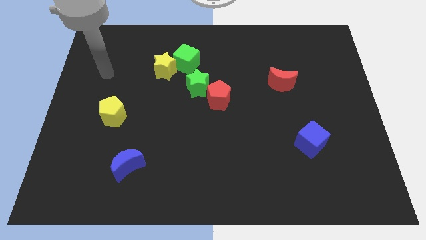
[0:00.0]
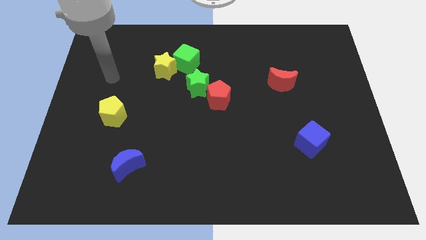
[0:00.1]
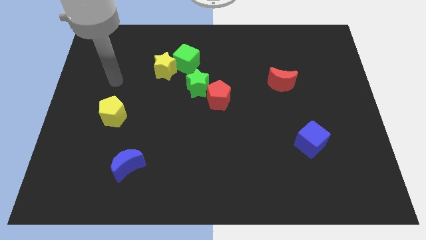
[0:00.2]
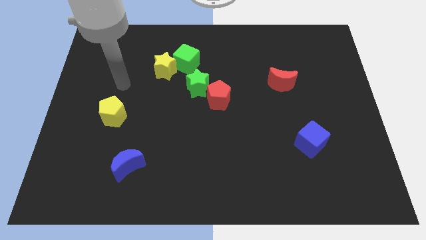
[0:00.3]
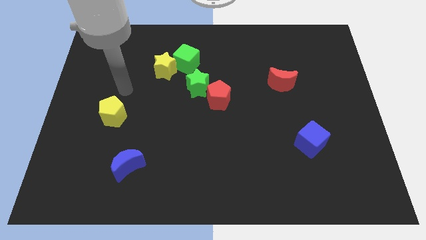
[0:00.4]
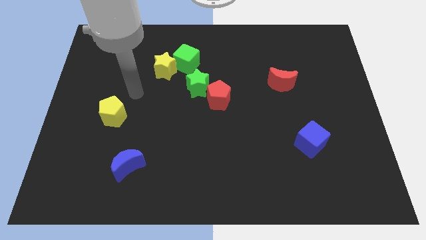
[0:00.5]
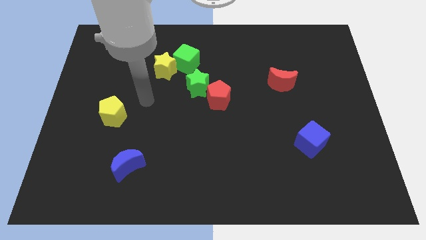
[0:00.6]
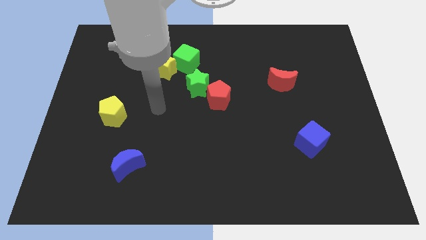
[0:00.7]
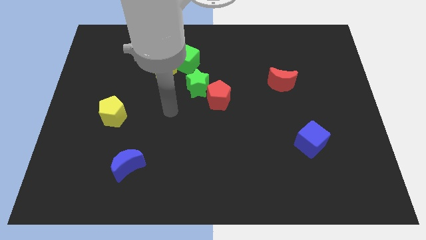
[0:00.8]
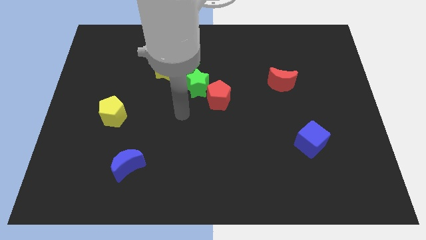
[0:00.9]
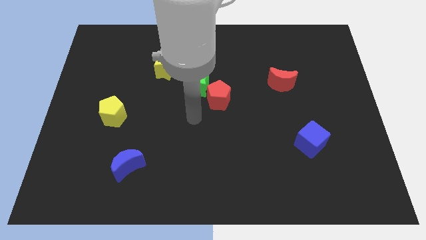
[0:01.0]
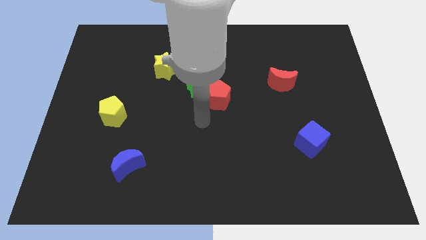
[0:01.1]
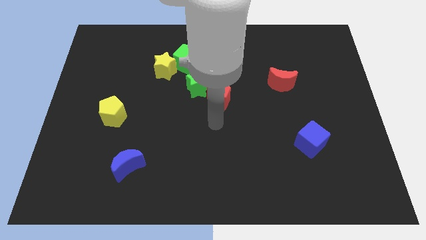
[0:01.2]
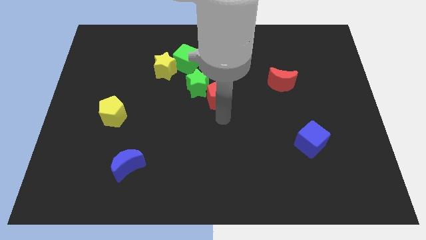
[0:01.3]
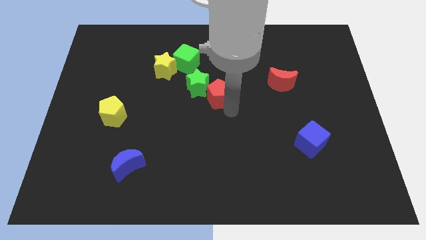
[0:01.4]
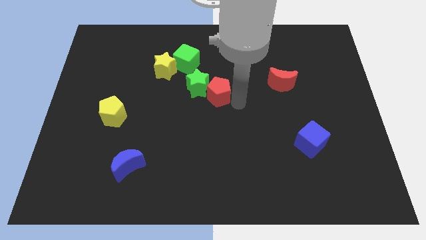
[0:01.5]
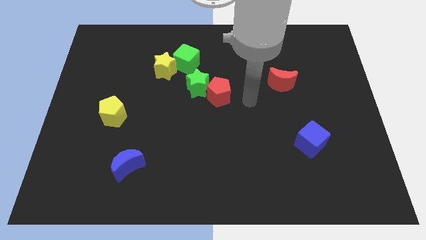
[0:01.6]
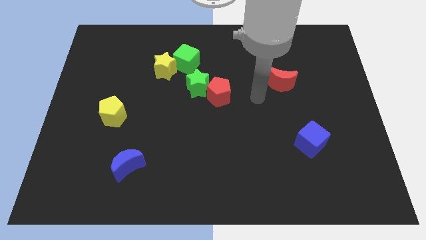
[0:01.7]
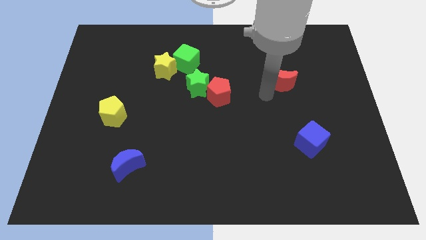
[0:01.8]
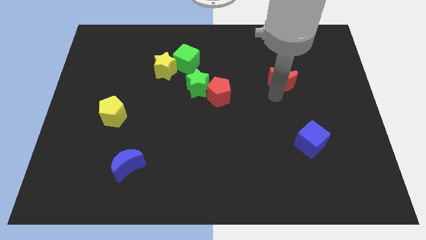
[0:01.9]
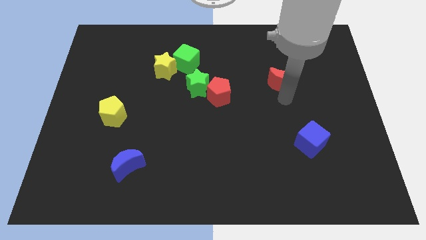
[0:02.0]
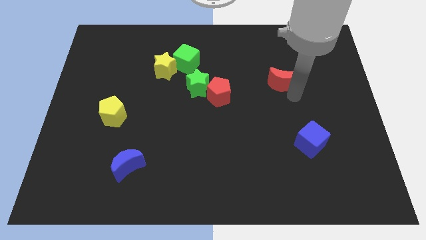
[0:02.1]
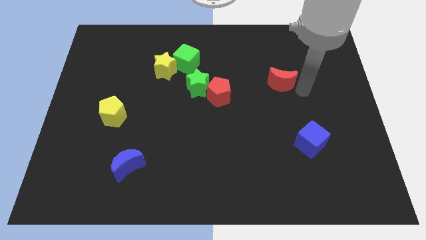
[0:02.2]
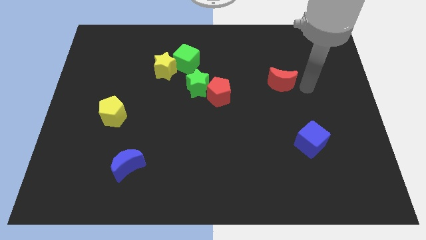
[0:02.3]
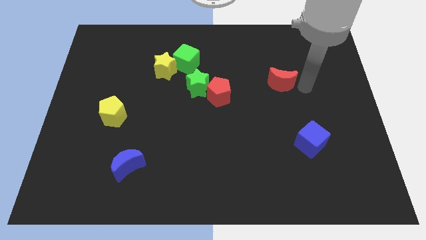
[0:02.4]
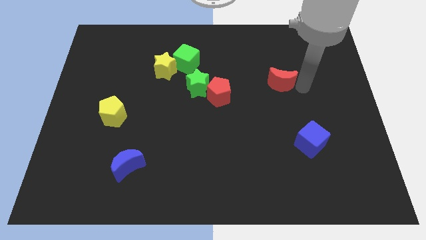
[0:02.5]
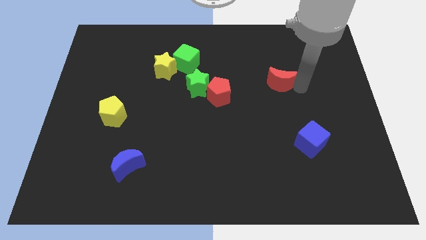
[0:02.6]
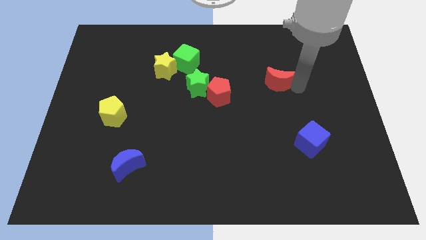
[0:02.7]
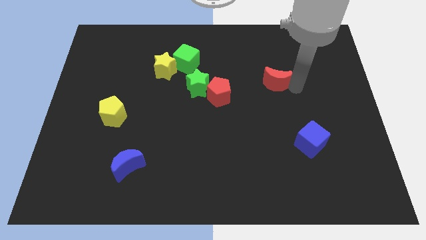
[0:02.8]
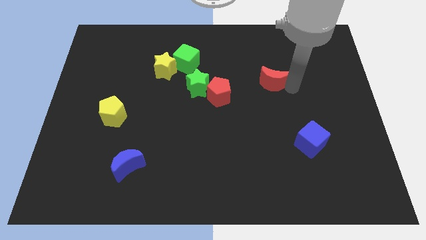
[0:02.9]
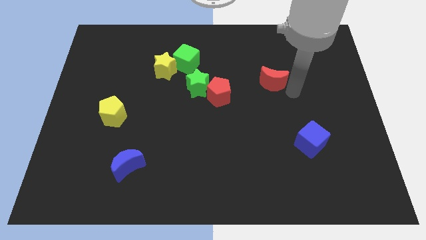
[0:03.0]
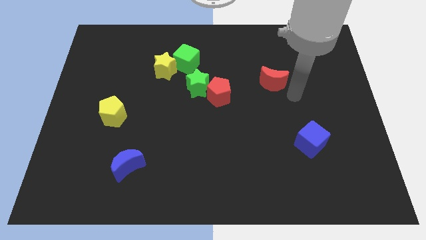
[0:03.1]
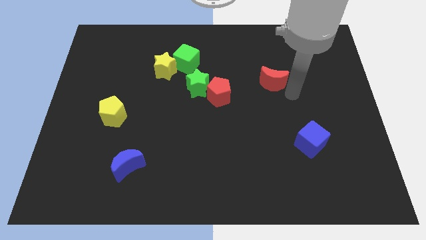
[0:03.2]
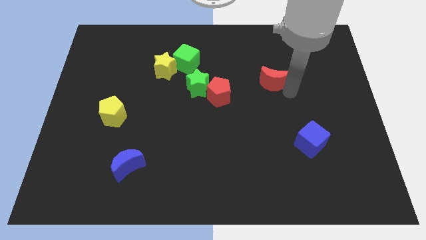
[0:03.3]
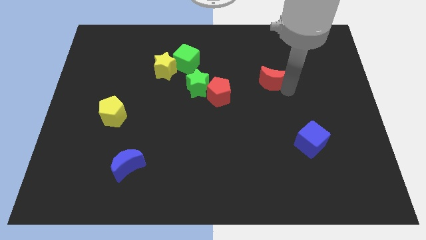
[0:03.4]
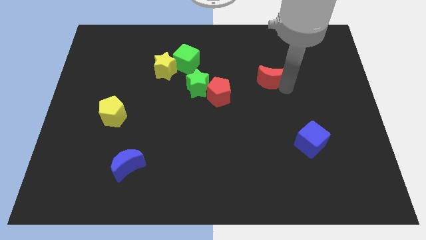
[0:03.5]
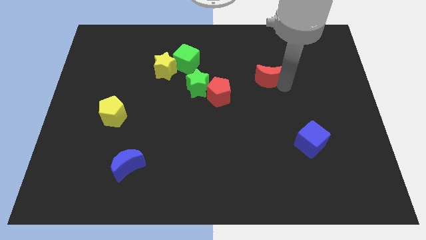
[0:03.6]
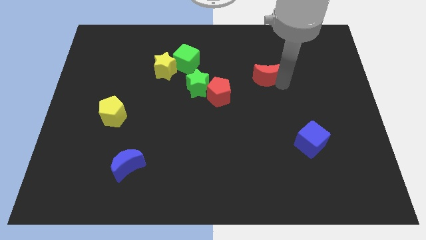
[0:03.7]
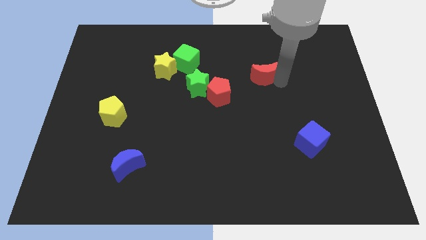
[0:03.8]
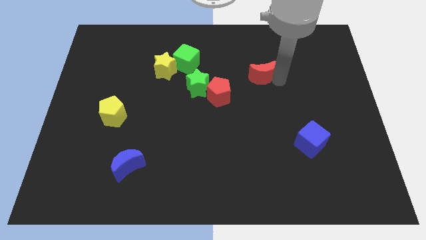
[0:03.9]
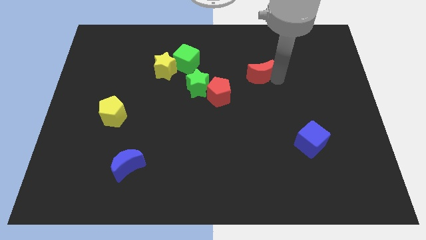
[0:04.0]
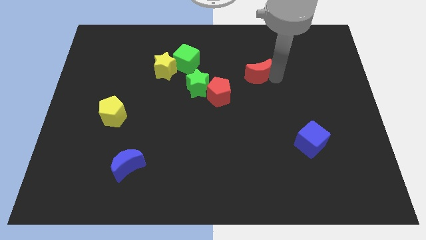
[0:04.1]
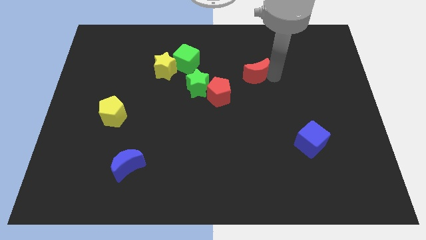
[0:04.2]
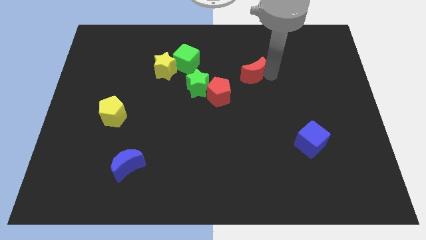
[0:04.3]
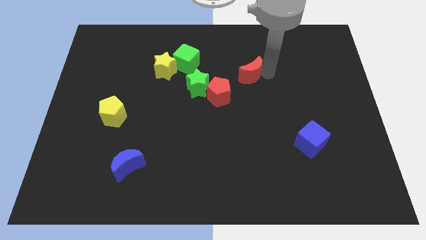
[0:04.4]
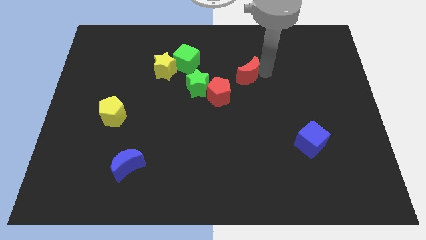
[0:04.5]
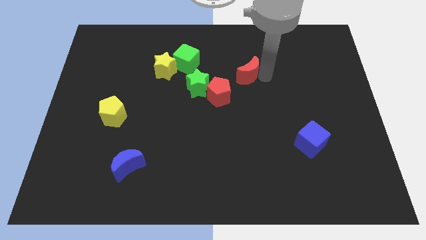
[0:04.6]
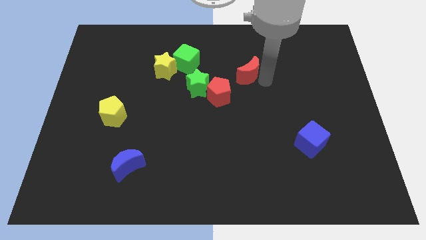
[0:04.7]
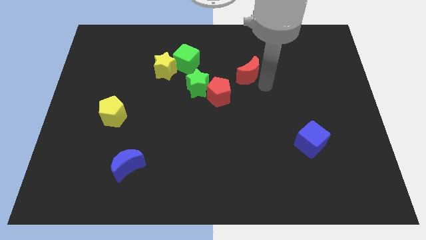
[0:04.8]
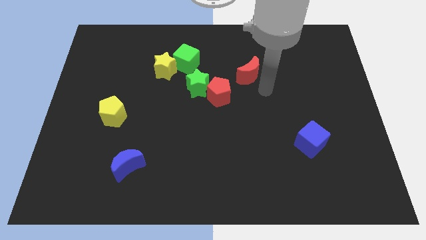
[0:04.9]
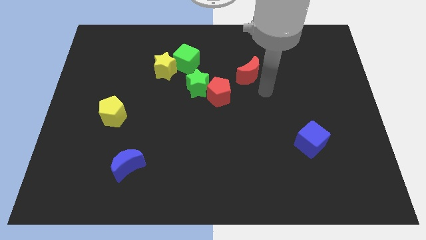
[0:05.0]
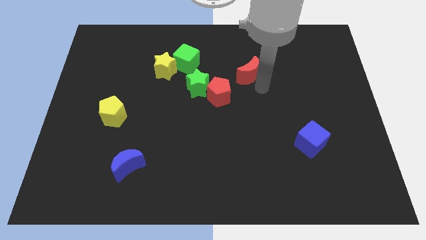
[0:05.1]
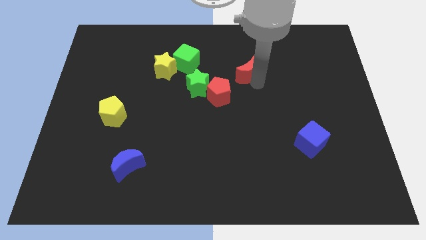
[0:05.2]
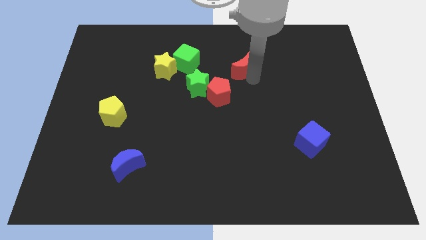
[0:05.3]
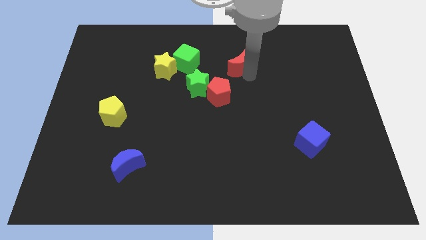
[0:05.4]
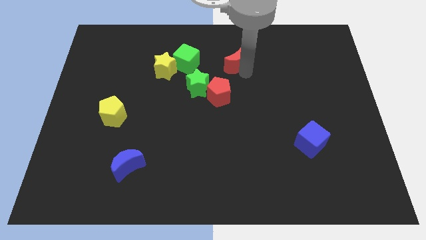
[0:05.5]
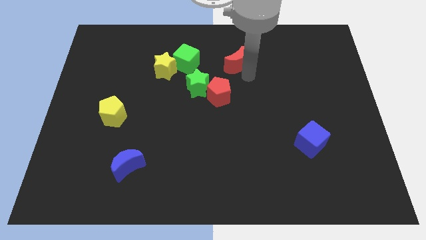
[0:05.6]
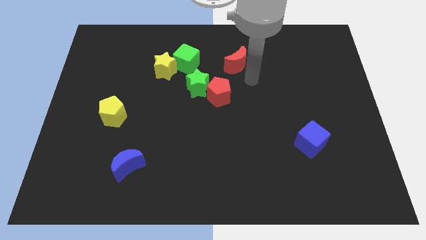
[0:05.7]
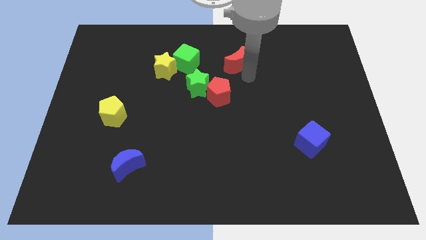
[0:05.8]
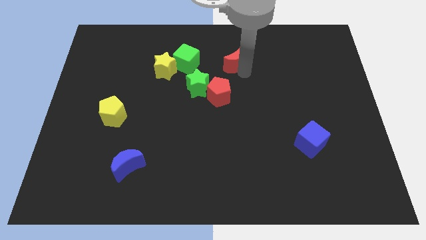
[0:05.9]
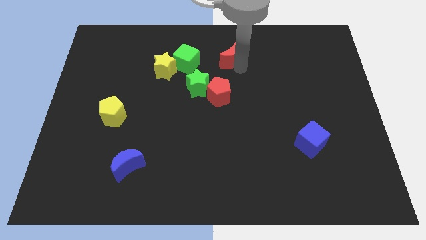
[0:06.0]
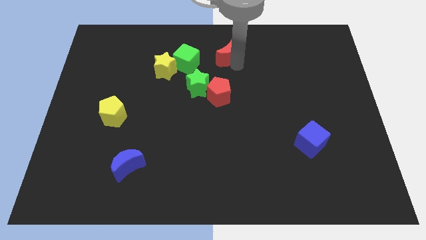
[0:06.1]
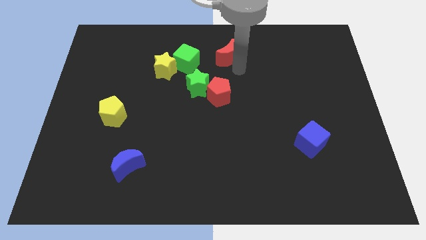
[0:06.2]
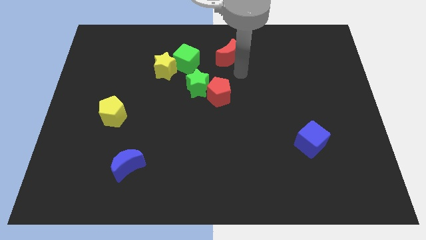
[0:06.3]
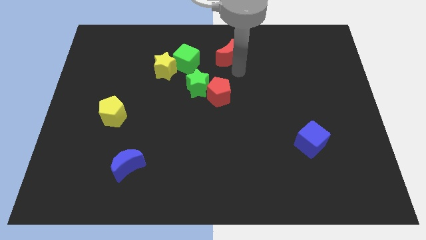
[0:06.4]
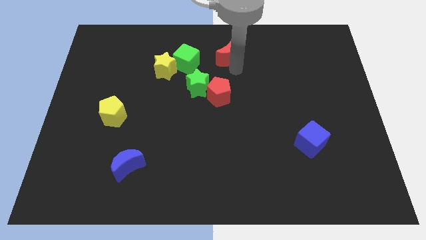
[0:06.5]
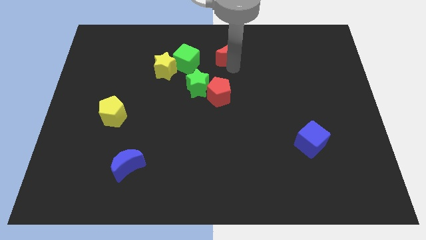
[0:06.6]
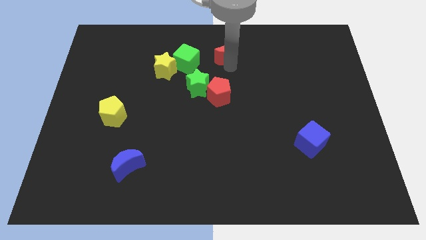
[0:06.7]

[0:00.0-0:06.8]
push the red moon to the towards your base

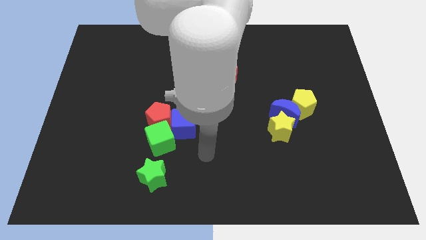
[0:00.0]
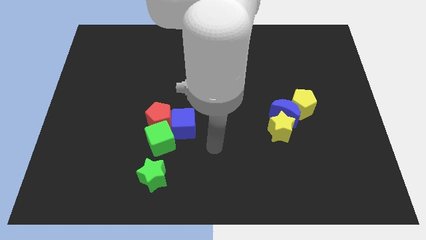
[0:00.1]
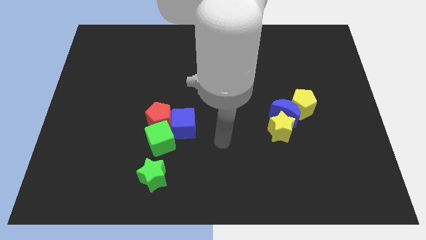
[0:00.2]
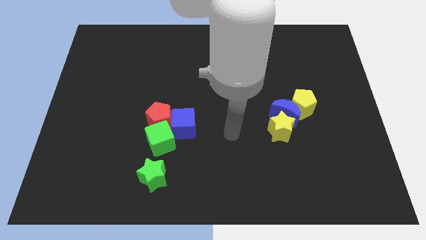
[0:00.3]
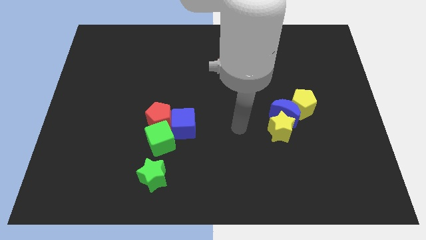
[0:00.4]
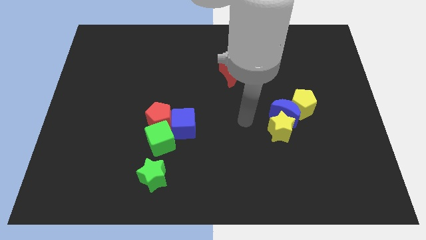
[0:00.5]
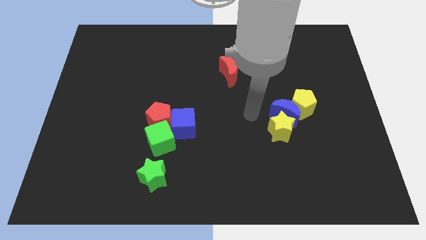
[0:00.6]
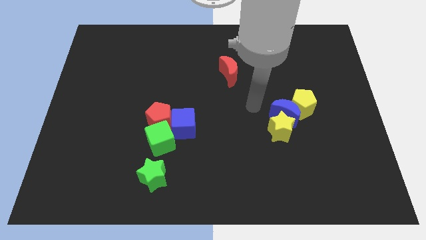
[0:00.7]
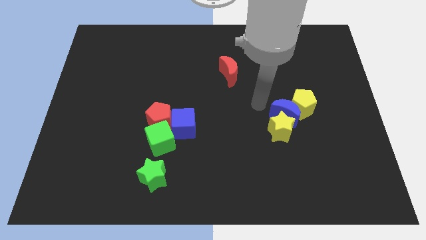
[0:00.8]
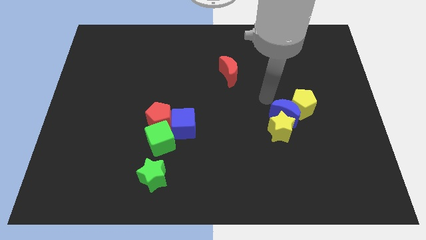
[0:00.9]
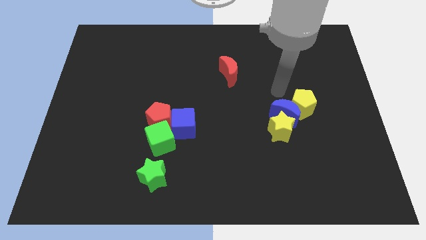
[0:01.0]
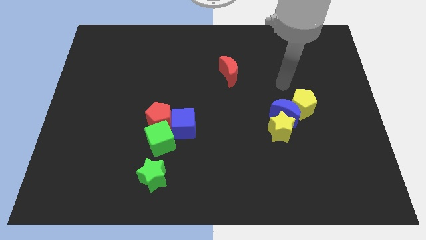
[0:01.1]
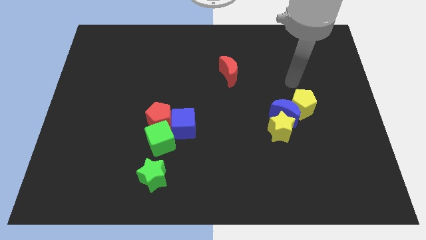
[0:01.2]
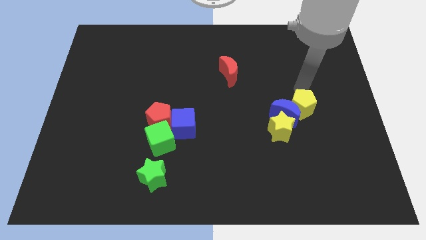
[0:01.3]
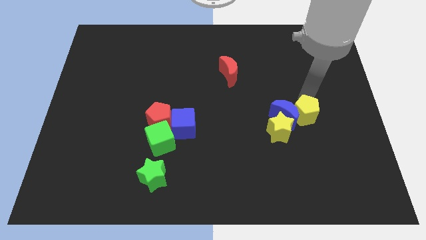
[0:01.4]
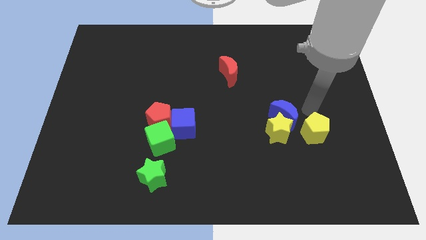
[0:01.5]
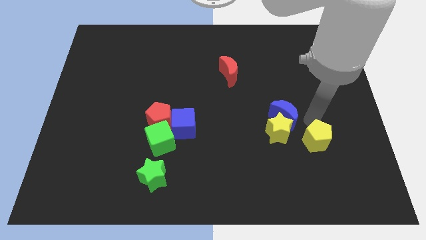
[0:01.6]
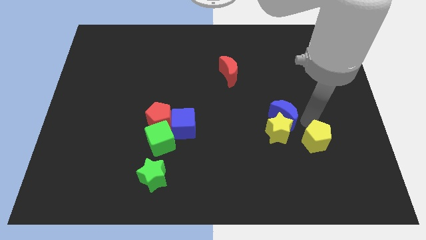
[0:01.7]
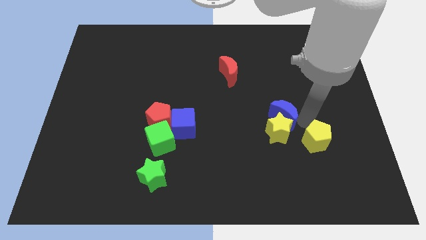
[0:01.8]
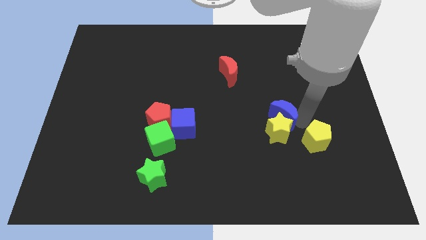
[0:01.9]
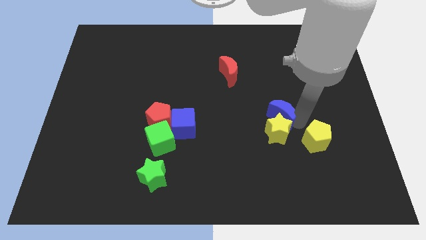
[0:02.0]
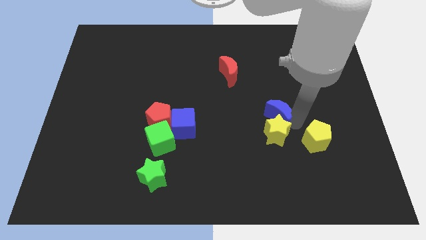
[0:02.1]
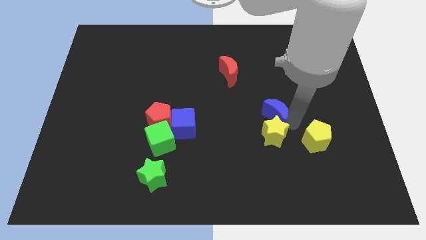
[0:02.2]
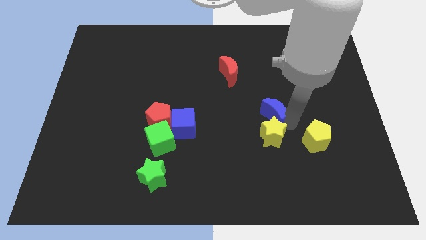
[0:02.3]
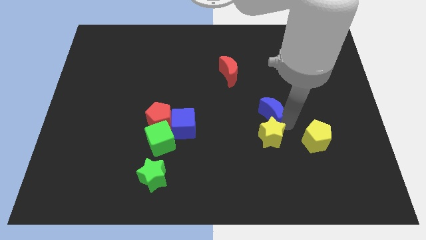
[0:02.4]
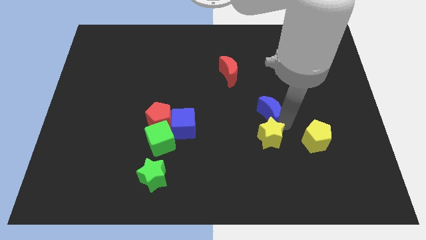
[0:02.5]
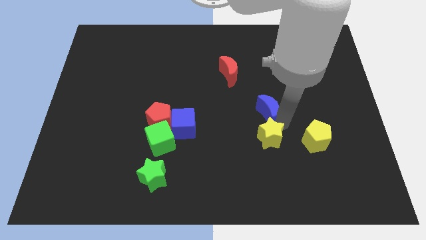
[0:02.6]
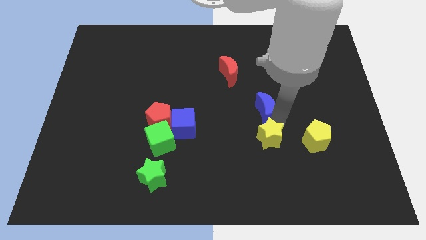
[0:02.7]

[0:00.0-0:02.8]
move the blue moon to the middle
